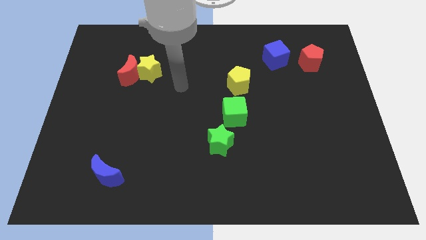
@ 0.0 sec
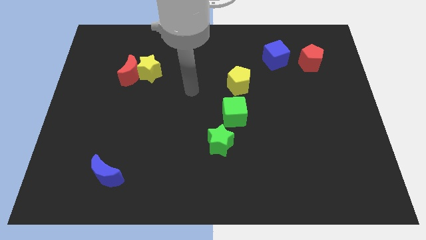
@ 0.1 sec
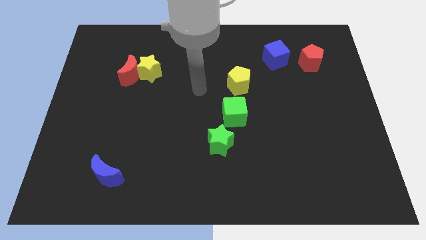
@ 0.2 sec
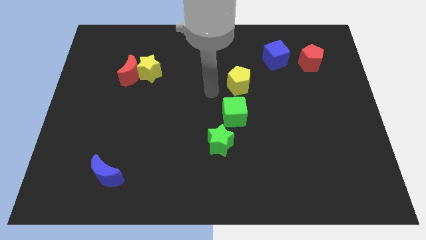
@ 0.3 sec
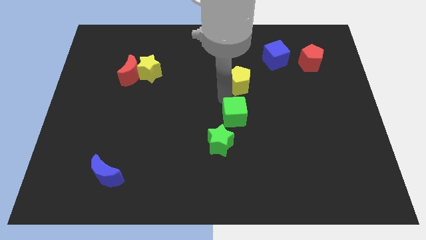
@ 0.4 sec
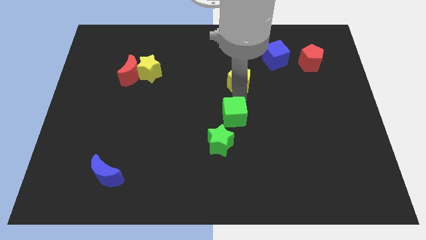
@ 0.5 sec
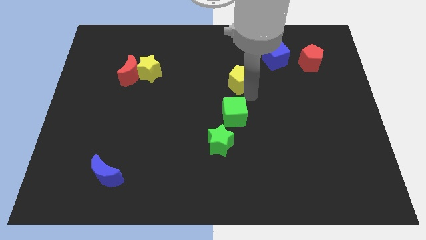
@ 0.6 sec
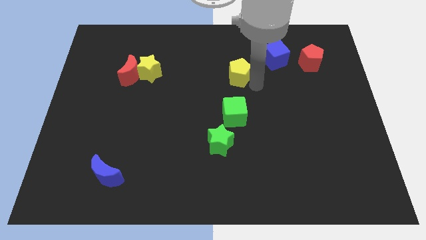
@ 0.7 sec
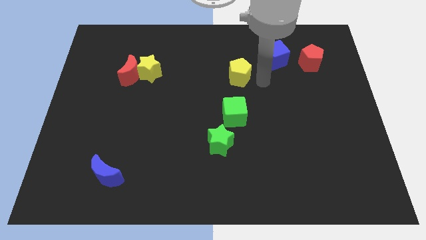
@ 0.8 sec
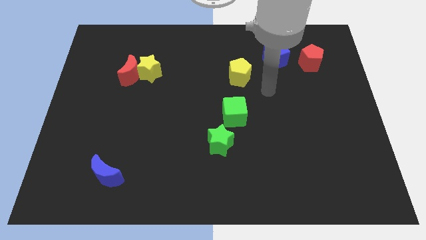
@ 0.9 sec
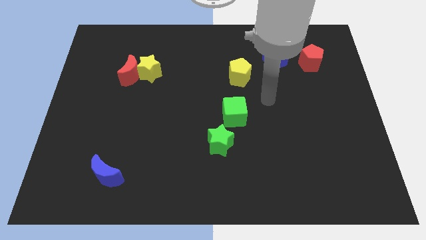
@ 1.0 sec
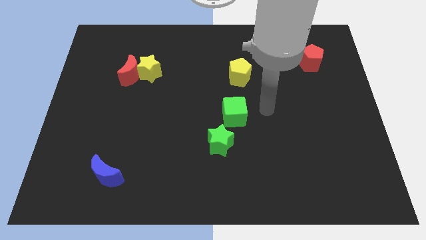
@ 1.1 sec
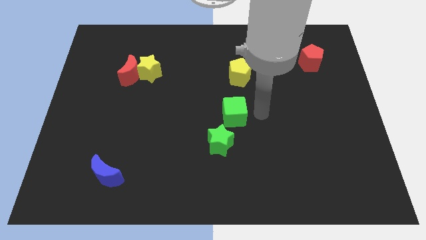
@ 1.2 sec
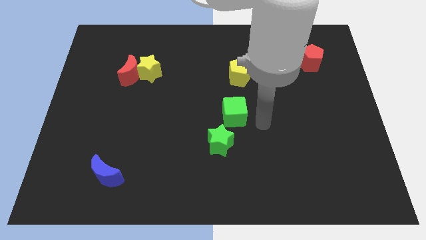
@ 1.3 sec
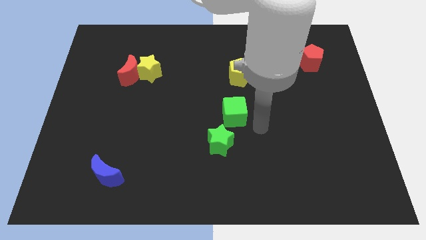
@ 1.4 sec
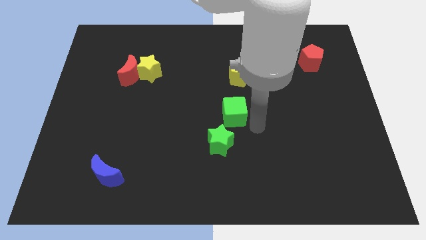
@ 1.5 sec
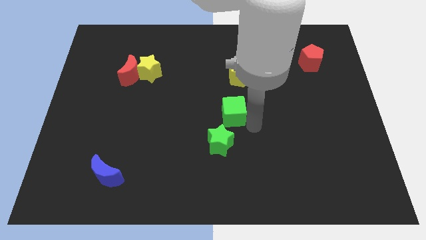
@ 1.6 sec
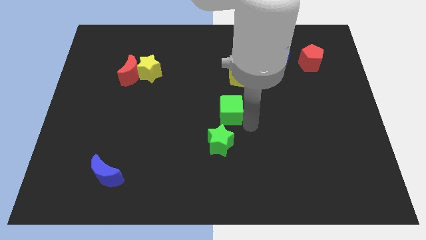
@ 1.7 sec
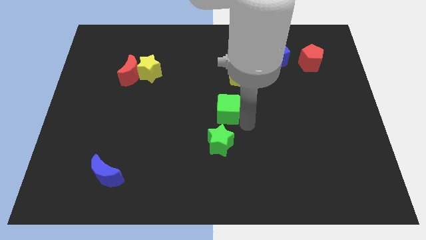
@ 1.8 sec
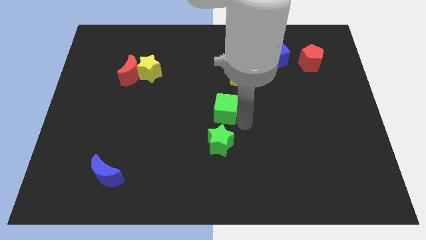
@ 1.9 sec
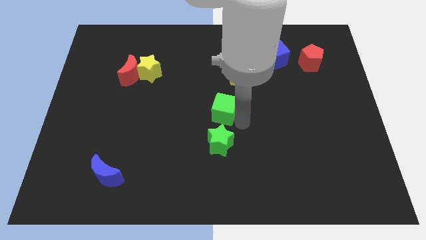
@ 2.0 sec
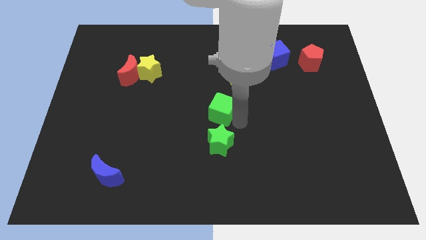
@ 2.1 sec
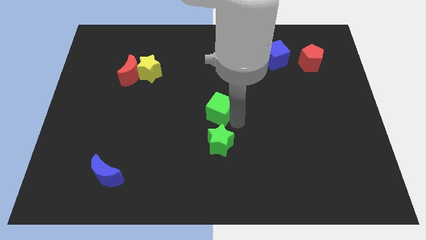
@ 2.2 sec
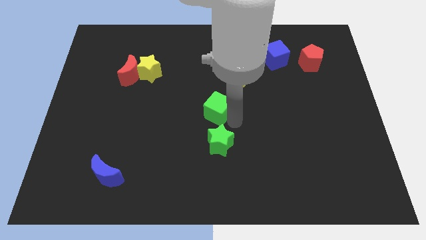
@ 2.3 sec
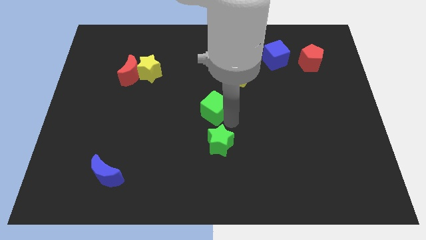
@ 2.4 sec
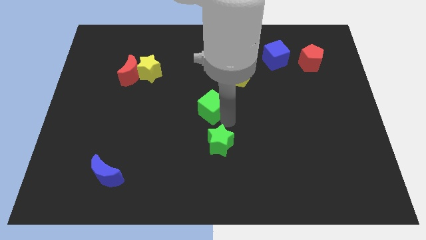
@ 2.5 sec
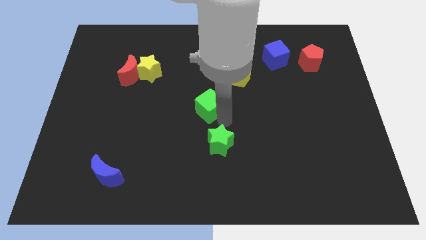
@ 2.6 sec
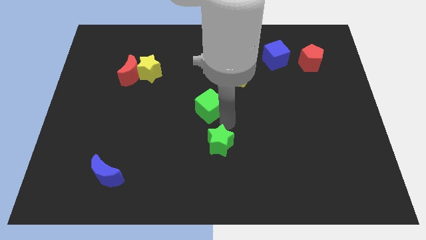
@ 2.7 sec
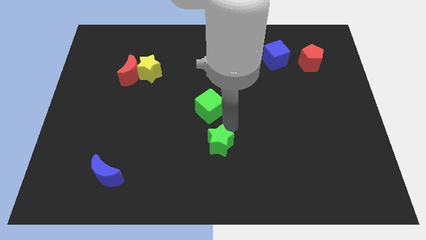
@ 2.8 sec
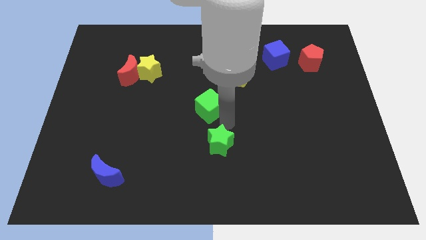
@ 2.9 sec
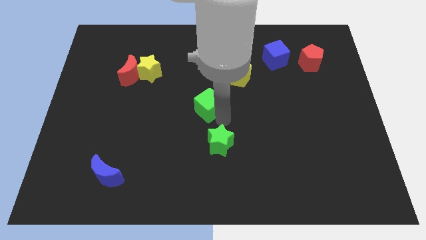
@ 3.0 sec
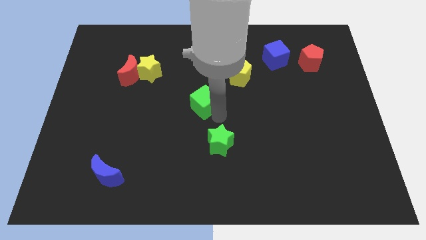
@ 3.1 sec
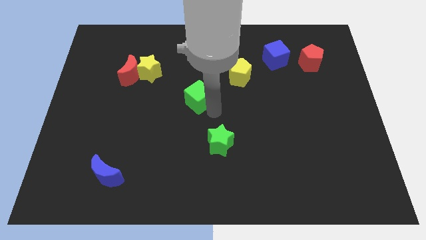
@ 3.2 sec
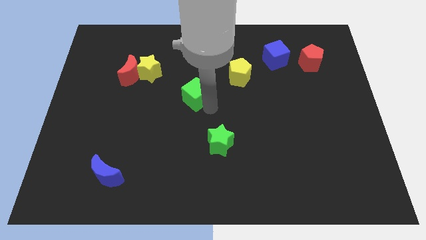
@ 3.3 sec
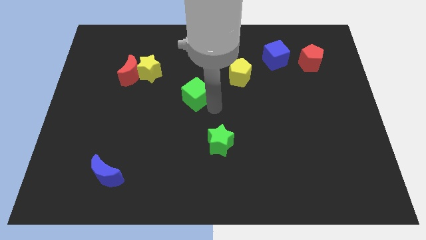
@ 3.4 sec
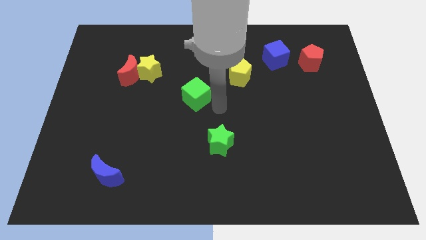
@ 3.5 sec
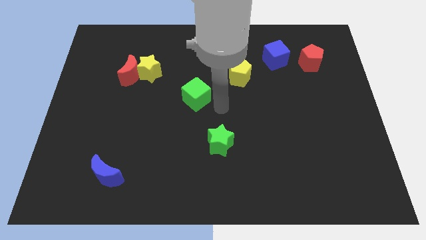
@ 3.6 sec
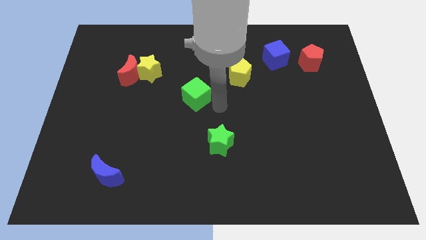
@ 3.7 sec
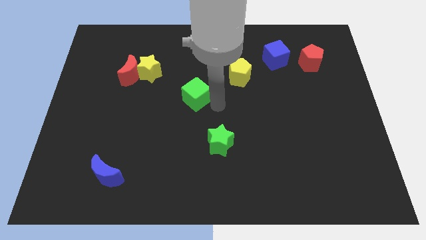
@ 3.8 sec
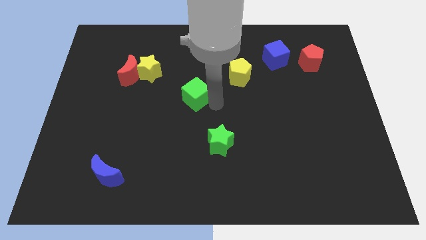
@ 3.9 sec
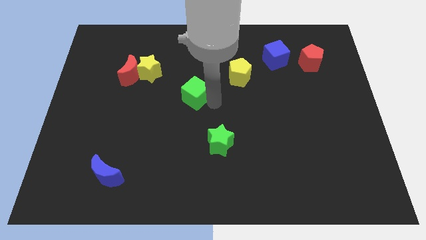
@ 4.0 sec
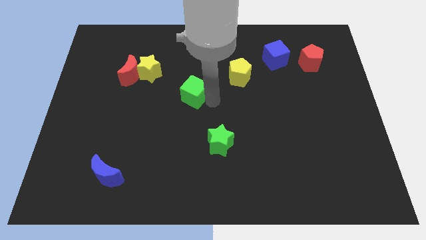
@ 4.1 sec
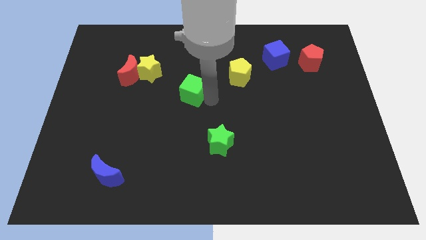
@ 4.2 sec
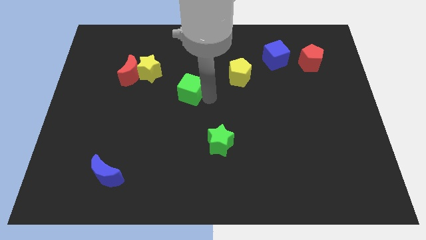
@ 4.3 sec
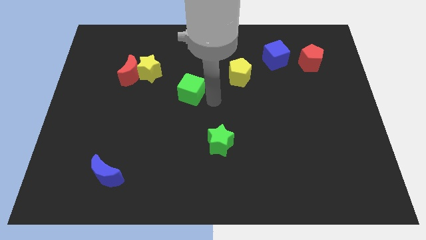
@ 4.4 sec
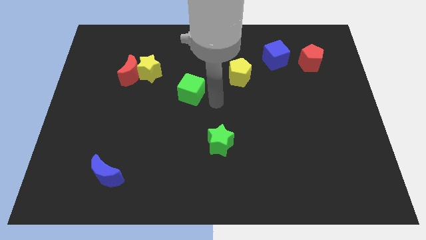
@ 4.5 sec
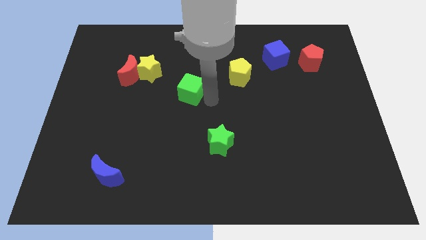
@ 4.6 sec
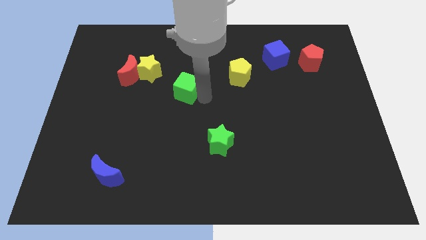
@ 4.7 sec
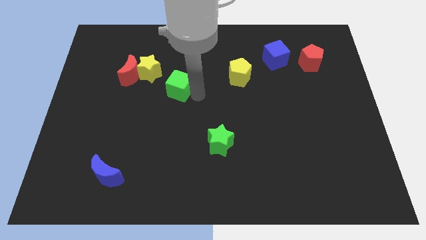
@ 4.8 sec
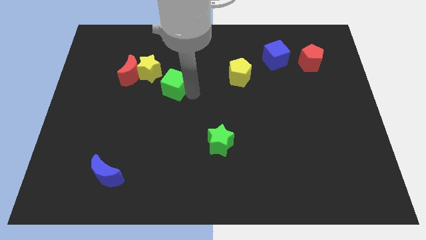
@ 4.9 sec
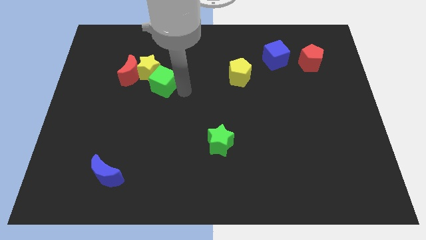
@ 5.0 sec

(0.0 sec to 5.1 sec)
put the green cube to the yellow star

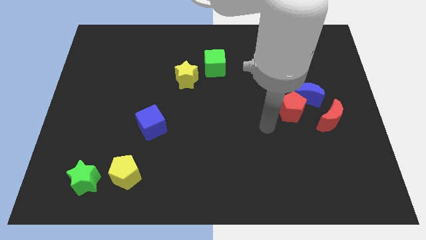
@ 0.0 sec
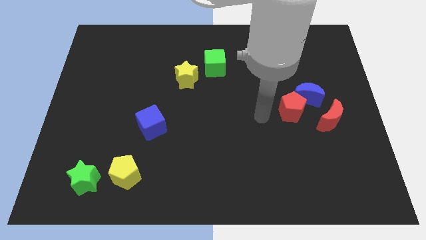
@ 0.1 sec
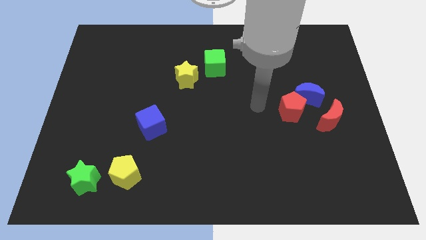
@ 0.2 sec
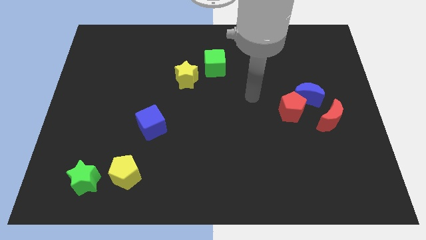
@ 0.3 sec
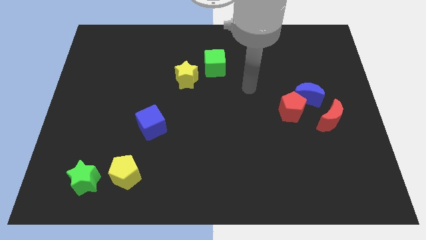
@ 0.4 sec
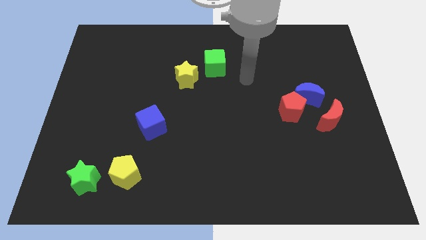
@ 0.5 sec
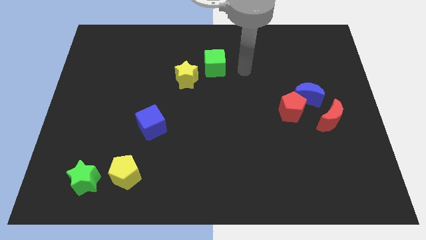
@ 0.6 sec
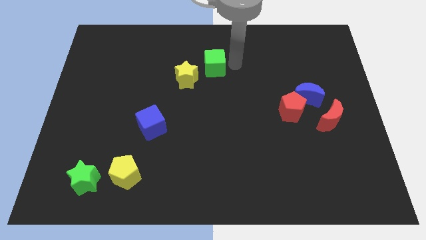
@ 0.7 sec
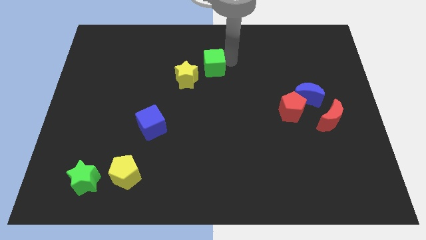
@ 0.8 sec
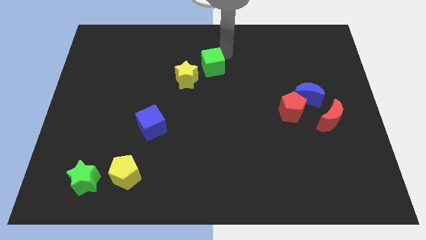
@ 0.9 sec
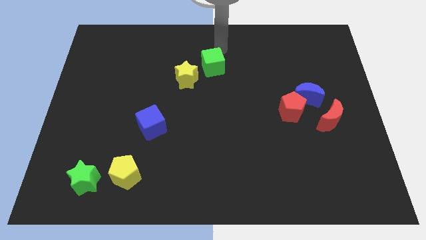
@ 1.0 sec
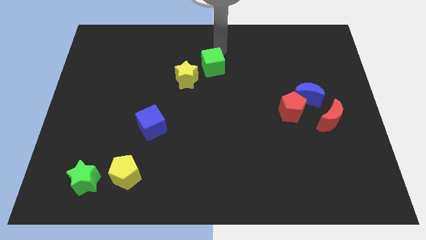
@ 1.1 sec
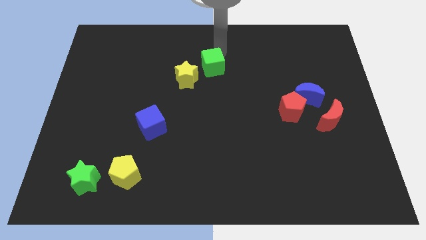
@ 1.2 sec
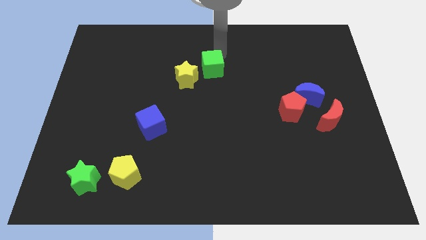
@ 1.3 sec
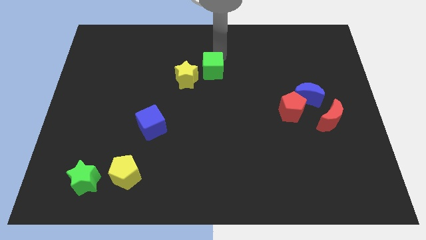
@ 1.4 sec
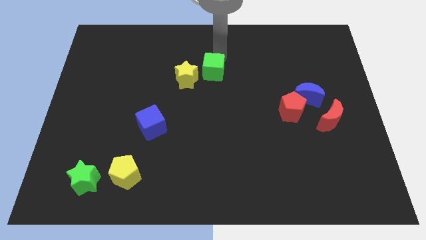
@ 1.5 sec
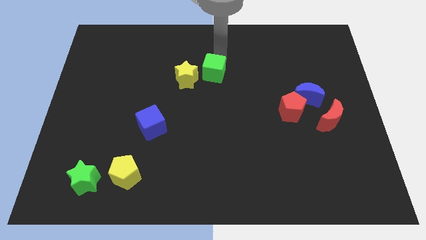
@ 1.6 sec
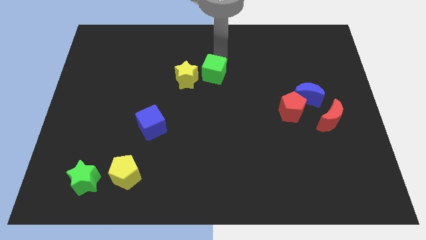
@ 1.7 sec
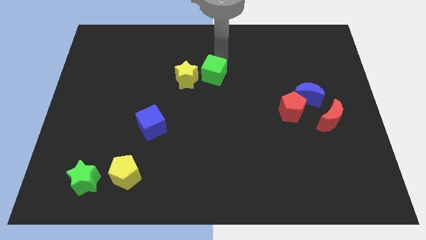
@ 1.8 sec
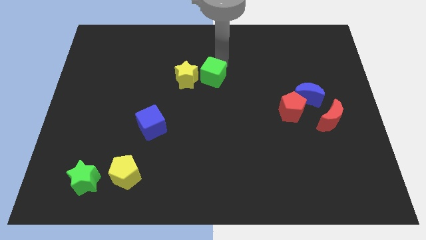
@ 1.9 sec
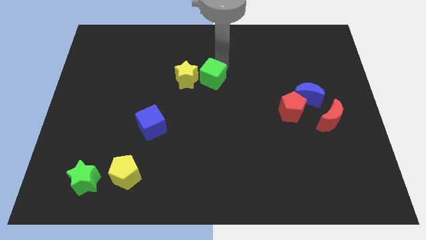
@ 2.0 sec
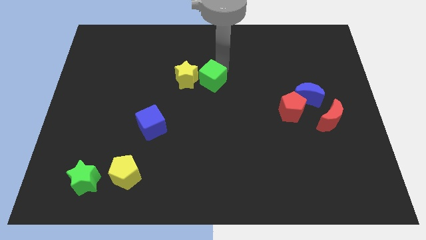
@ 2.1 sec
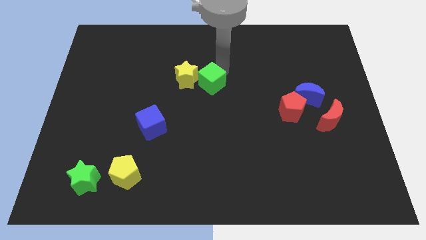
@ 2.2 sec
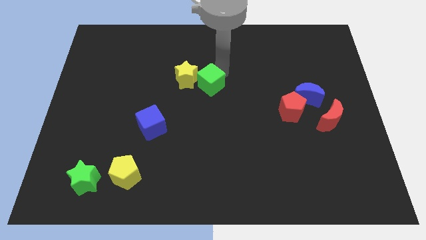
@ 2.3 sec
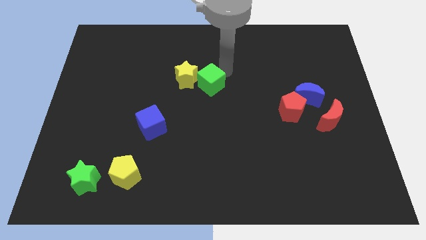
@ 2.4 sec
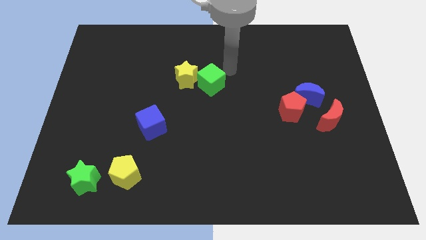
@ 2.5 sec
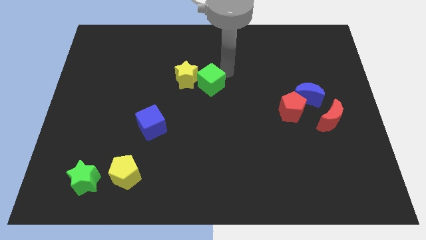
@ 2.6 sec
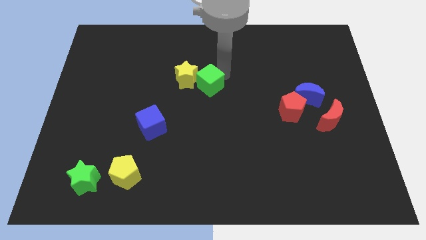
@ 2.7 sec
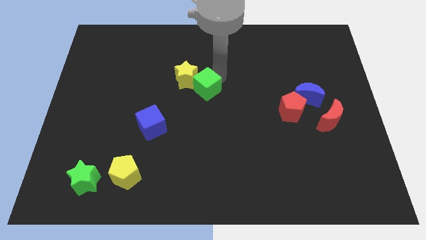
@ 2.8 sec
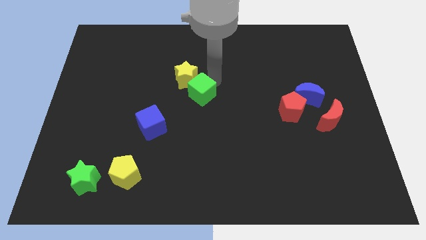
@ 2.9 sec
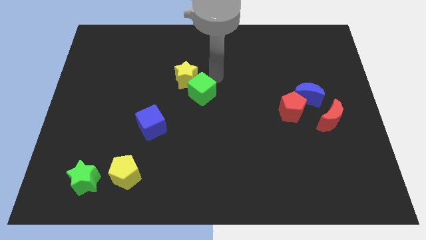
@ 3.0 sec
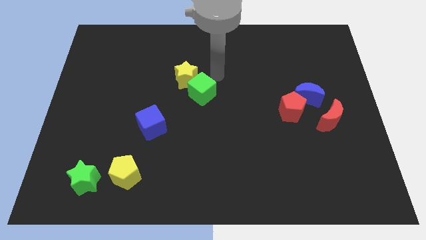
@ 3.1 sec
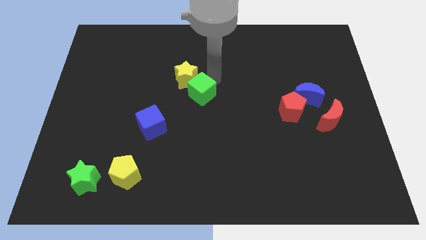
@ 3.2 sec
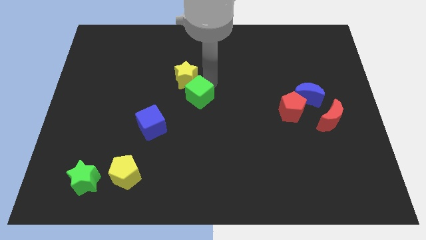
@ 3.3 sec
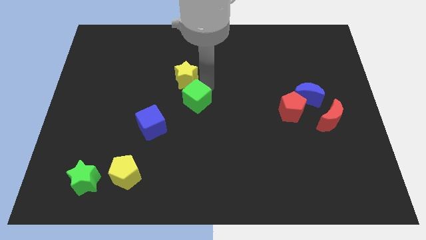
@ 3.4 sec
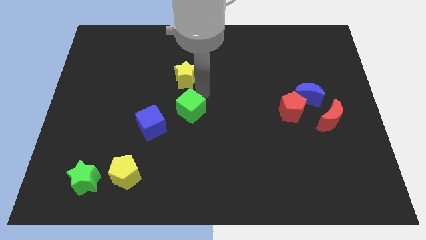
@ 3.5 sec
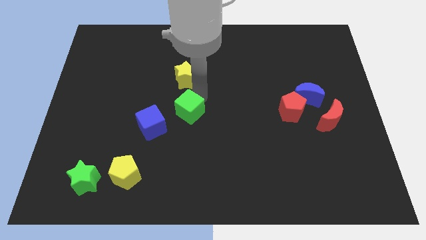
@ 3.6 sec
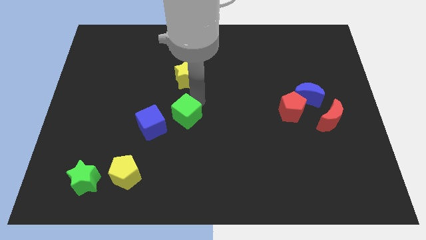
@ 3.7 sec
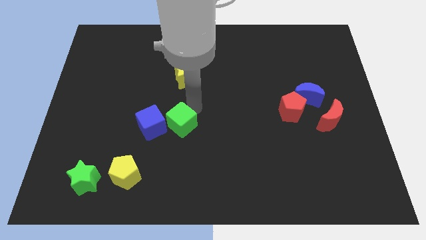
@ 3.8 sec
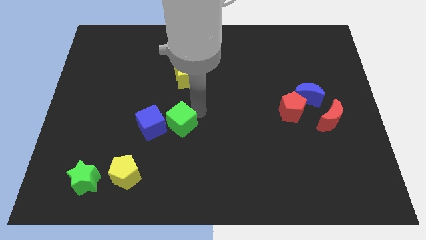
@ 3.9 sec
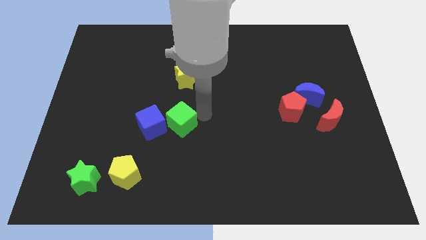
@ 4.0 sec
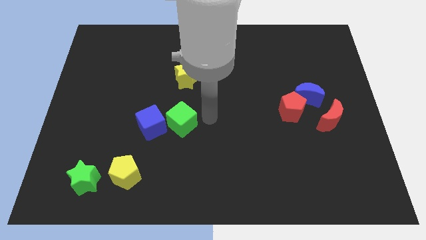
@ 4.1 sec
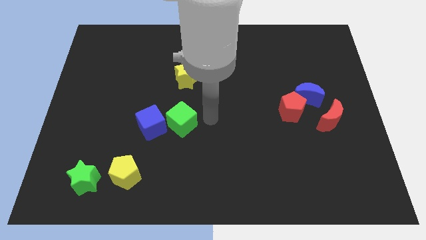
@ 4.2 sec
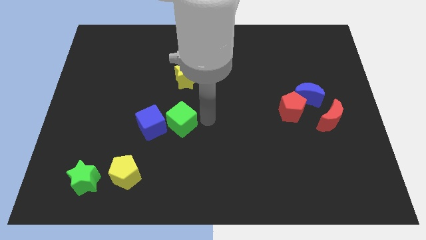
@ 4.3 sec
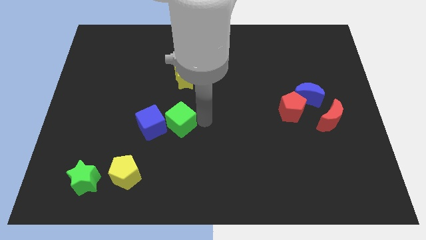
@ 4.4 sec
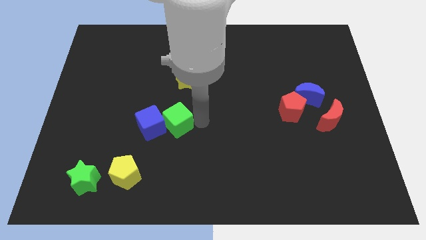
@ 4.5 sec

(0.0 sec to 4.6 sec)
push the green cube towards the blue cube
